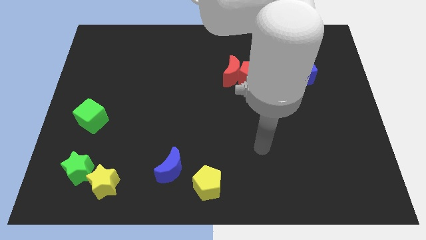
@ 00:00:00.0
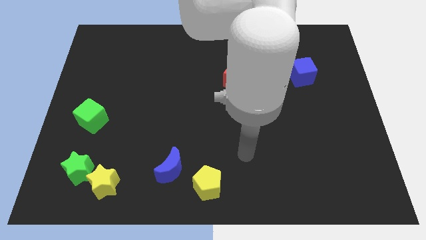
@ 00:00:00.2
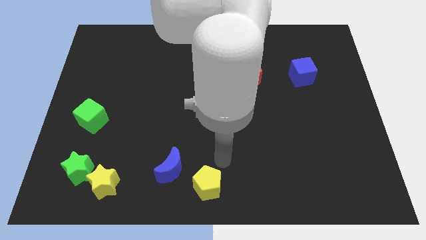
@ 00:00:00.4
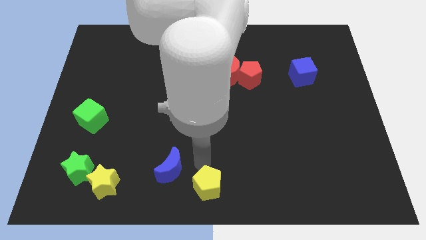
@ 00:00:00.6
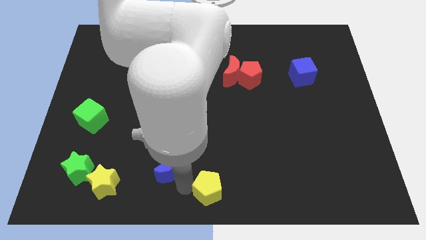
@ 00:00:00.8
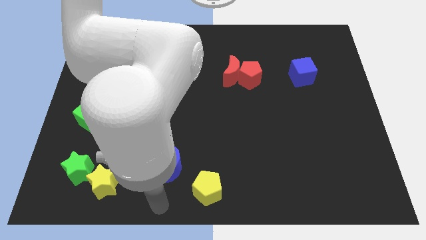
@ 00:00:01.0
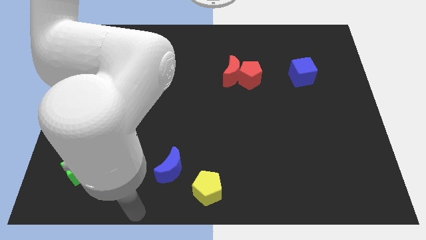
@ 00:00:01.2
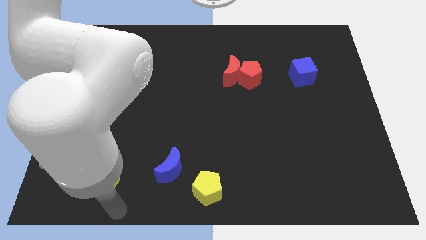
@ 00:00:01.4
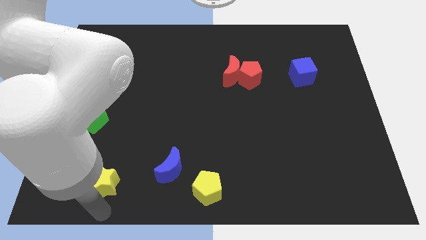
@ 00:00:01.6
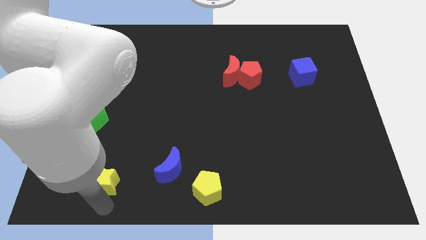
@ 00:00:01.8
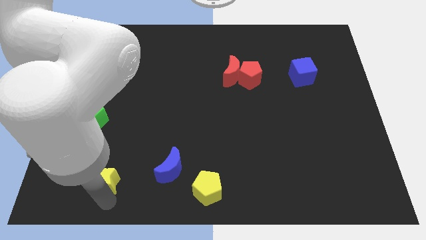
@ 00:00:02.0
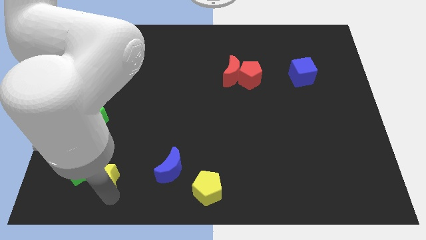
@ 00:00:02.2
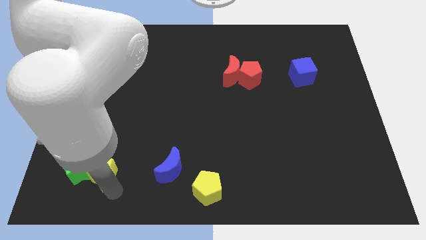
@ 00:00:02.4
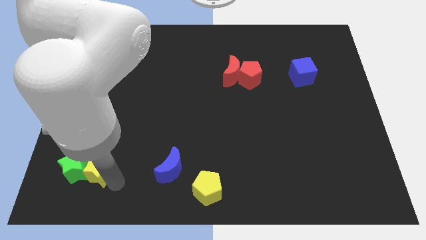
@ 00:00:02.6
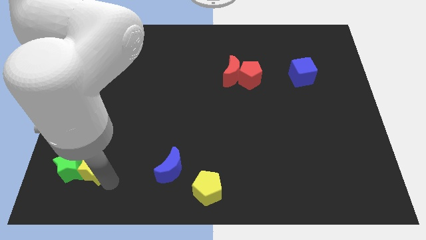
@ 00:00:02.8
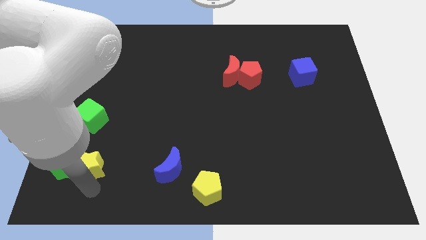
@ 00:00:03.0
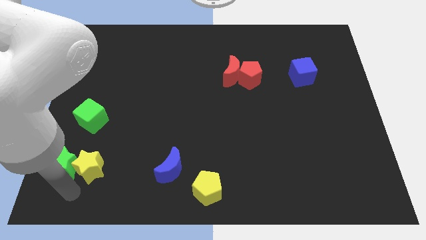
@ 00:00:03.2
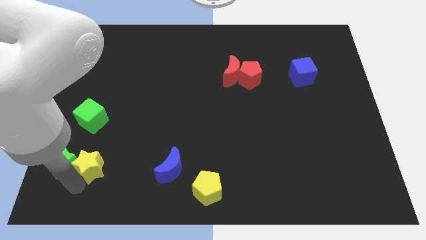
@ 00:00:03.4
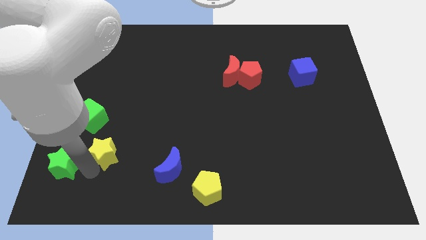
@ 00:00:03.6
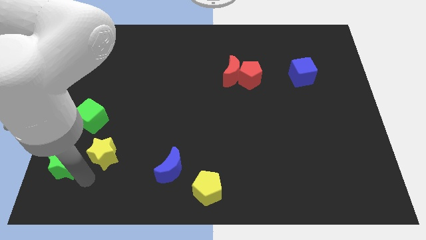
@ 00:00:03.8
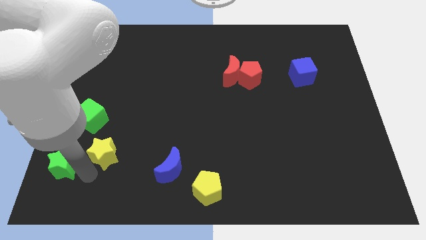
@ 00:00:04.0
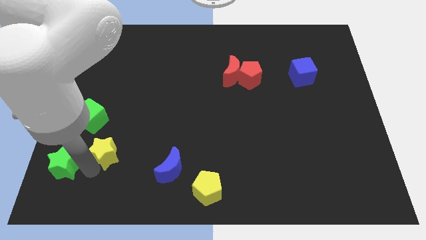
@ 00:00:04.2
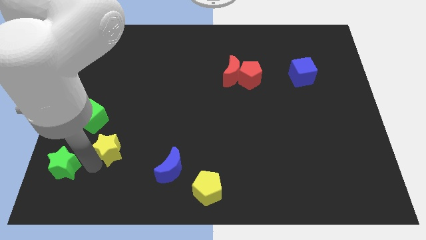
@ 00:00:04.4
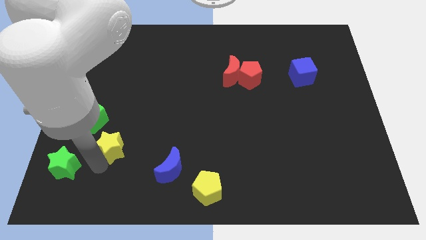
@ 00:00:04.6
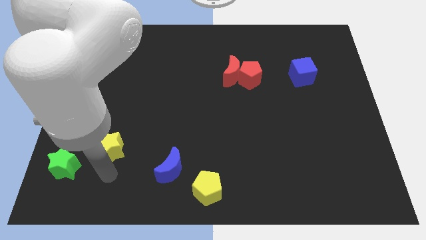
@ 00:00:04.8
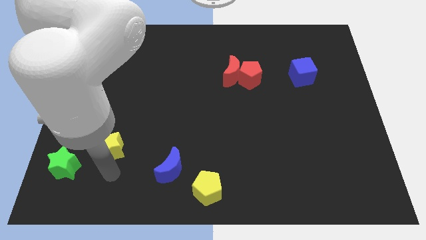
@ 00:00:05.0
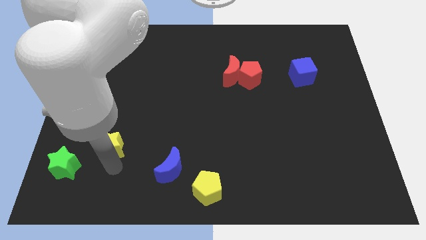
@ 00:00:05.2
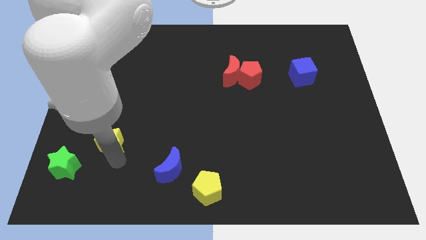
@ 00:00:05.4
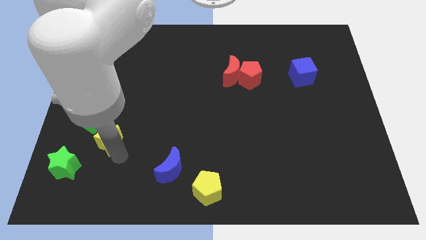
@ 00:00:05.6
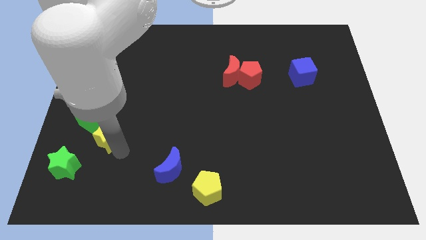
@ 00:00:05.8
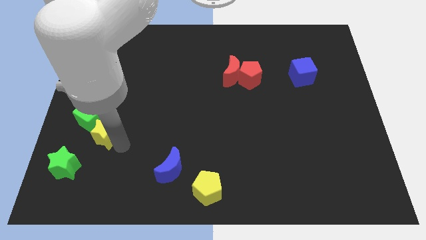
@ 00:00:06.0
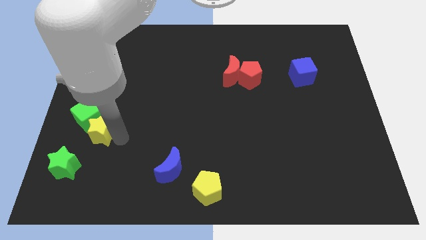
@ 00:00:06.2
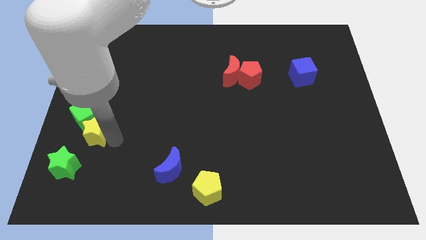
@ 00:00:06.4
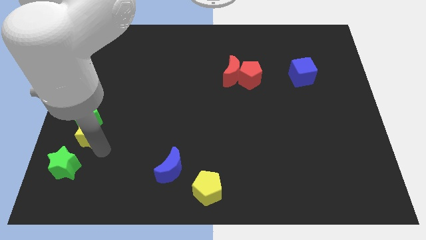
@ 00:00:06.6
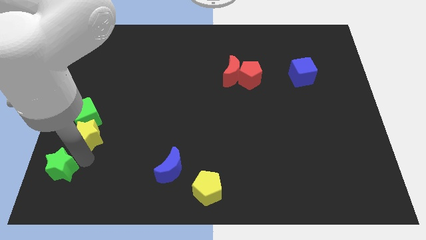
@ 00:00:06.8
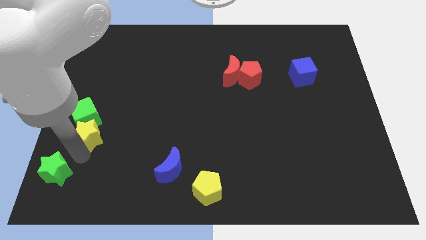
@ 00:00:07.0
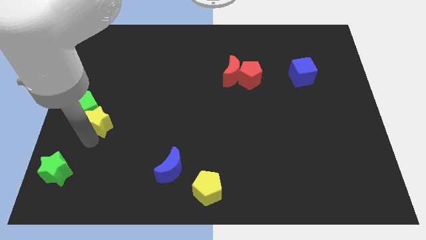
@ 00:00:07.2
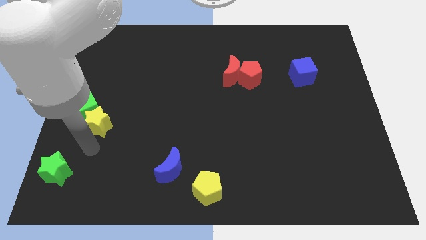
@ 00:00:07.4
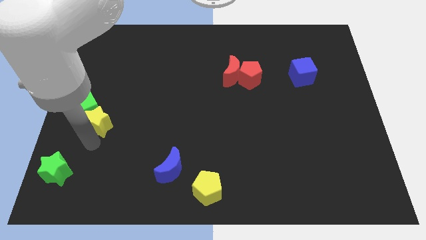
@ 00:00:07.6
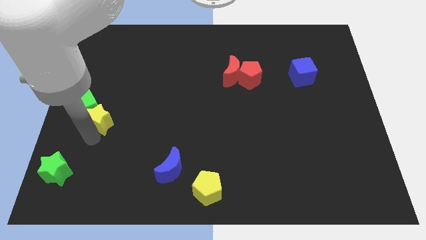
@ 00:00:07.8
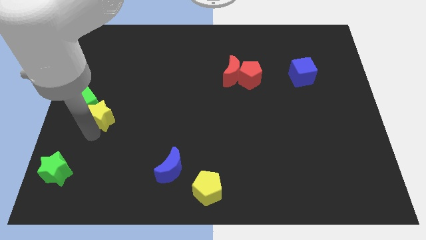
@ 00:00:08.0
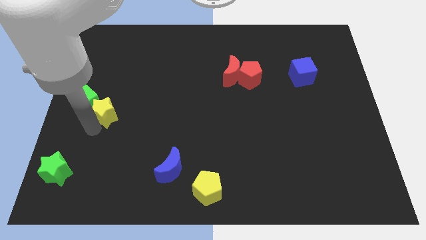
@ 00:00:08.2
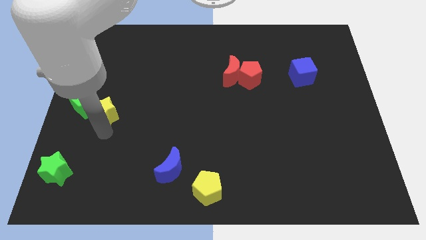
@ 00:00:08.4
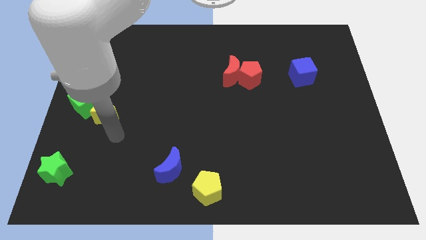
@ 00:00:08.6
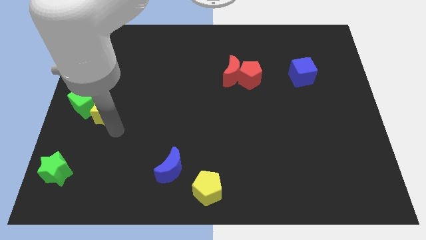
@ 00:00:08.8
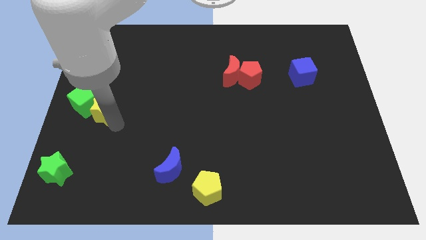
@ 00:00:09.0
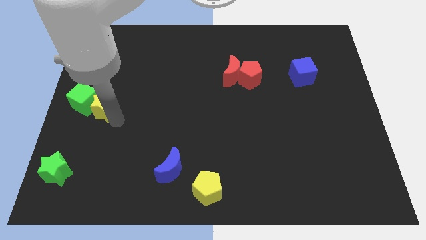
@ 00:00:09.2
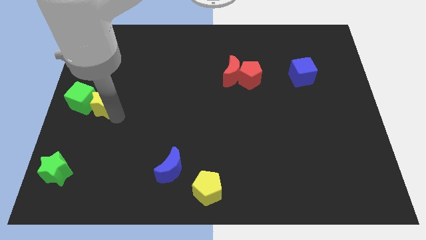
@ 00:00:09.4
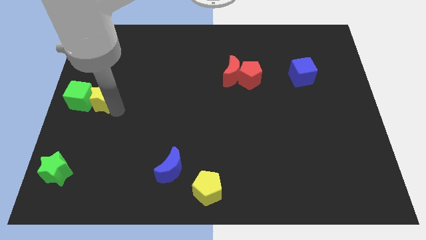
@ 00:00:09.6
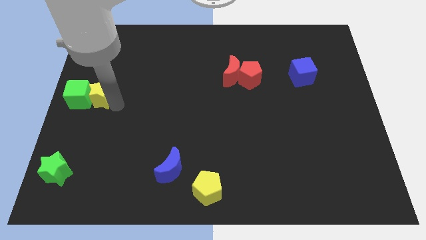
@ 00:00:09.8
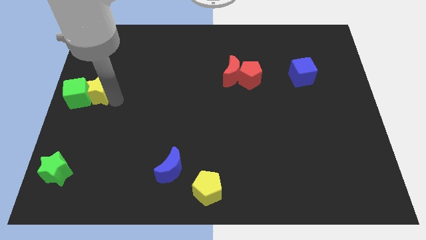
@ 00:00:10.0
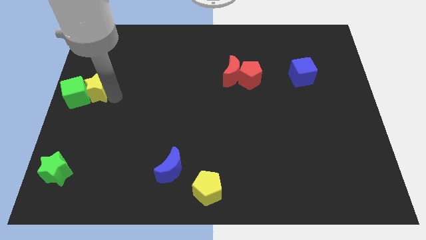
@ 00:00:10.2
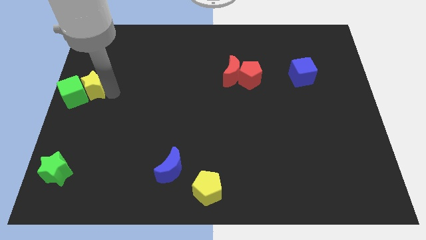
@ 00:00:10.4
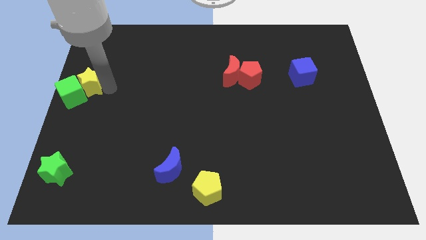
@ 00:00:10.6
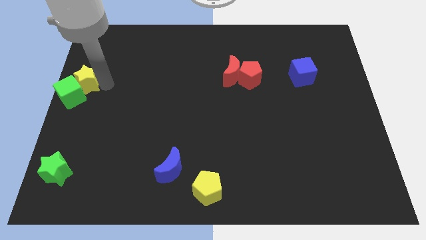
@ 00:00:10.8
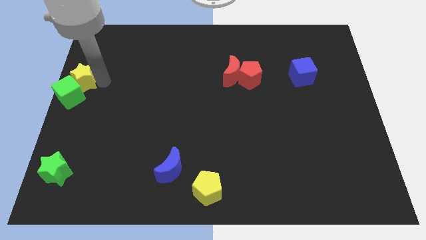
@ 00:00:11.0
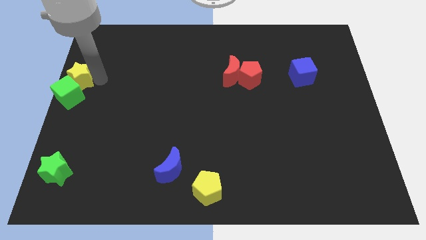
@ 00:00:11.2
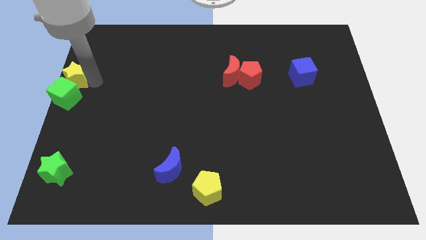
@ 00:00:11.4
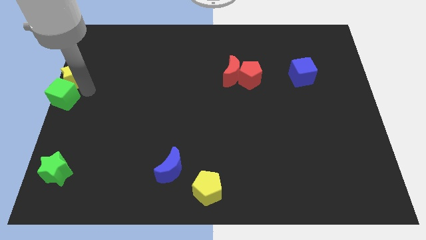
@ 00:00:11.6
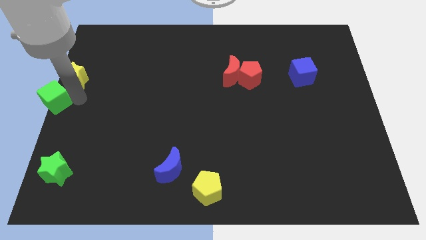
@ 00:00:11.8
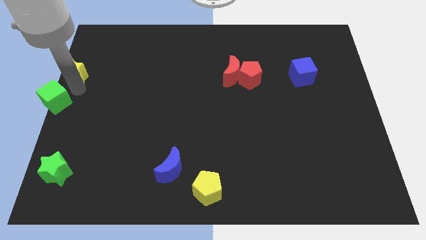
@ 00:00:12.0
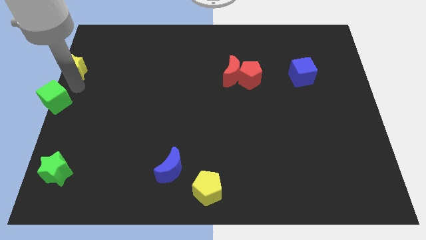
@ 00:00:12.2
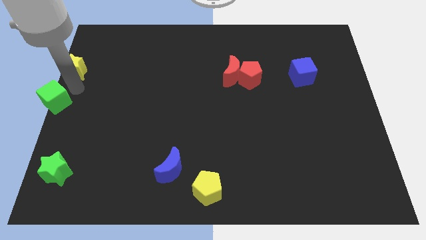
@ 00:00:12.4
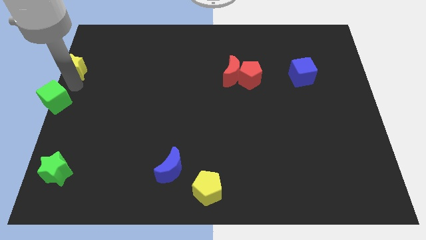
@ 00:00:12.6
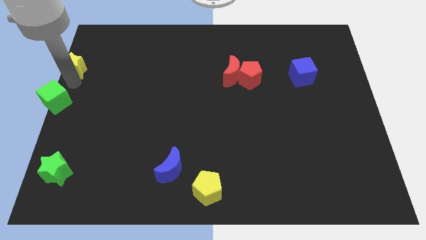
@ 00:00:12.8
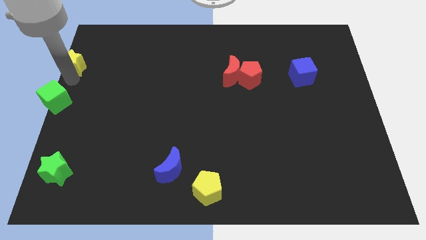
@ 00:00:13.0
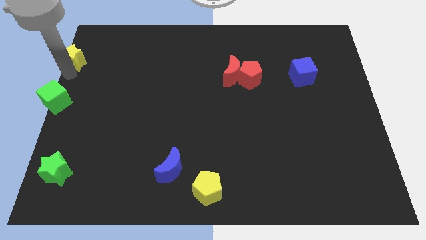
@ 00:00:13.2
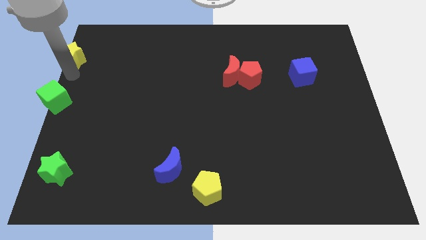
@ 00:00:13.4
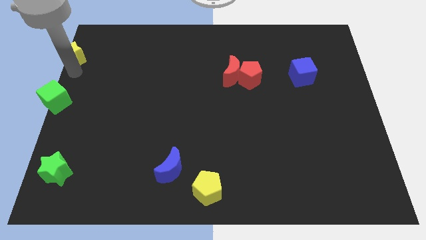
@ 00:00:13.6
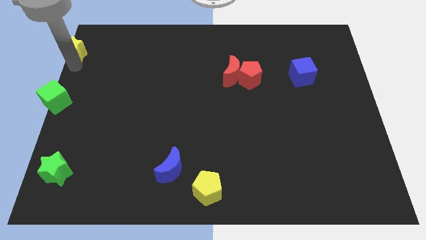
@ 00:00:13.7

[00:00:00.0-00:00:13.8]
slide the yellow star to the top left corner
